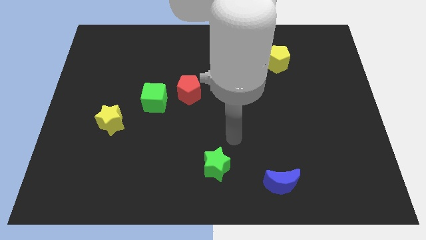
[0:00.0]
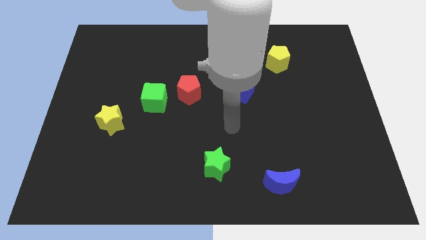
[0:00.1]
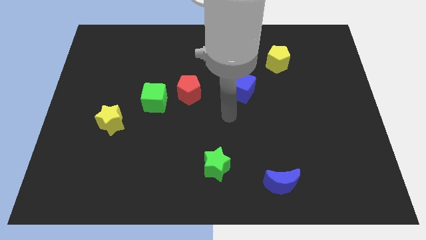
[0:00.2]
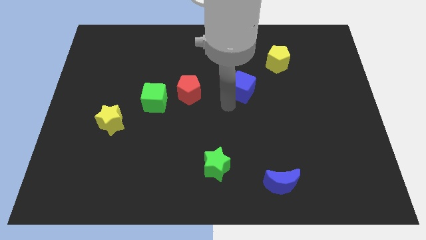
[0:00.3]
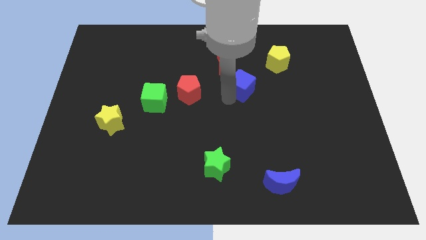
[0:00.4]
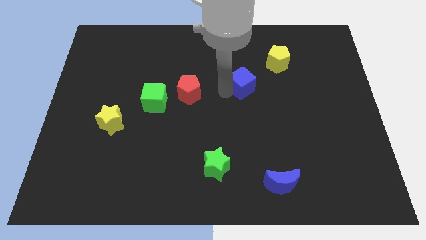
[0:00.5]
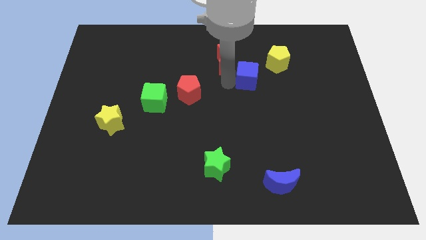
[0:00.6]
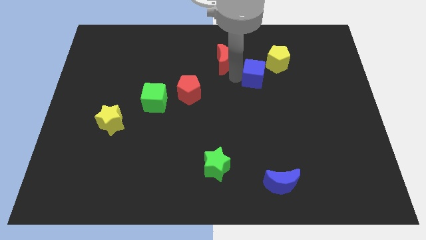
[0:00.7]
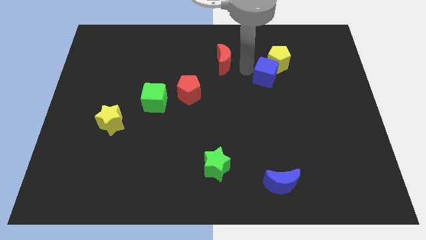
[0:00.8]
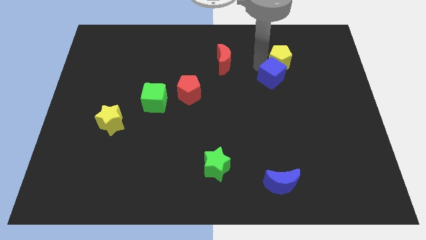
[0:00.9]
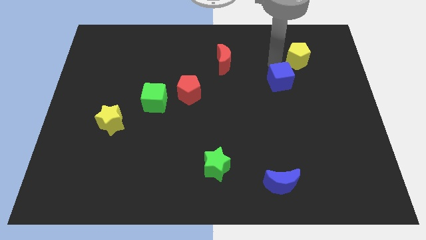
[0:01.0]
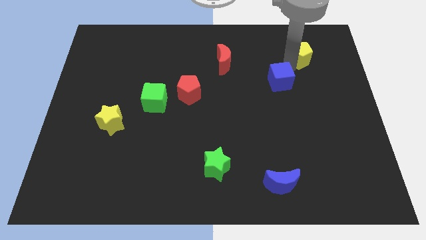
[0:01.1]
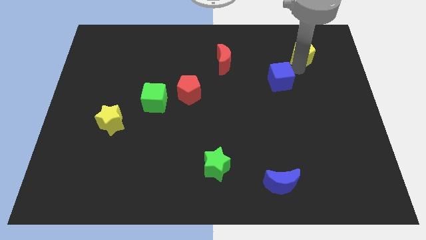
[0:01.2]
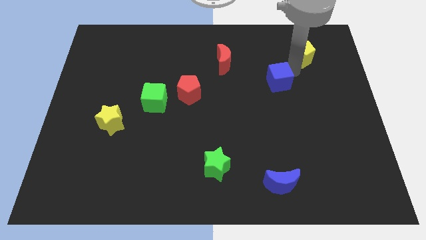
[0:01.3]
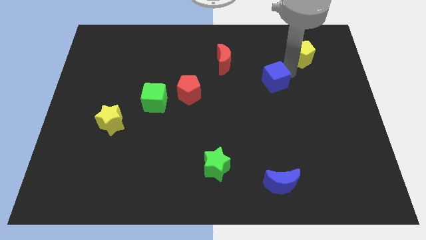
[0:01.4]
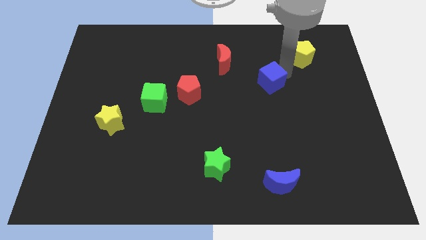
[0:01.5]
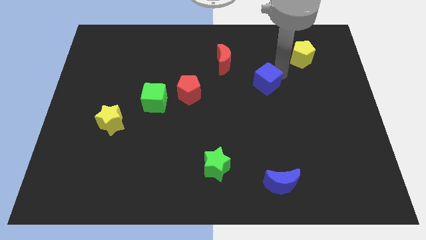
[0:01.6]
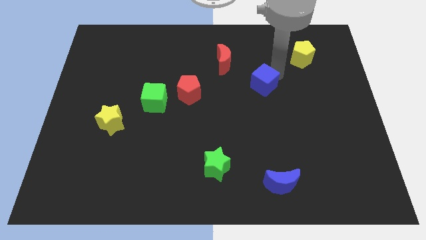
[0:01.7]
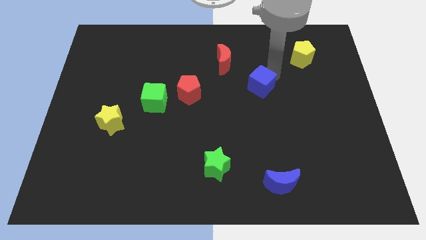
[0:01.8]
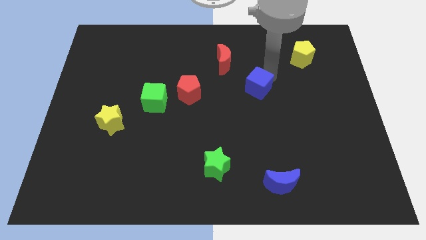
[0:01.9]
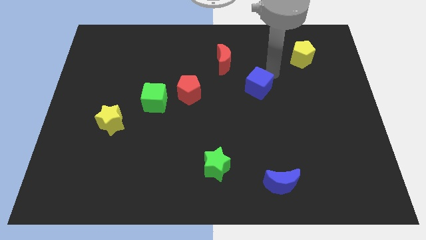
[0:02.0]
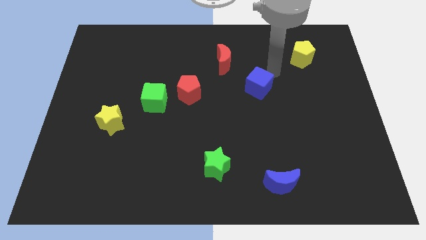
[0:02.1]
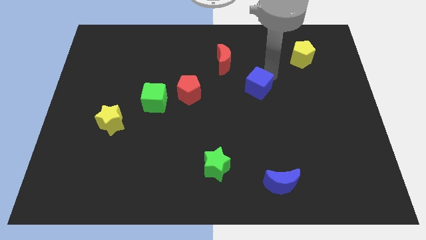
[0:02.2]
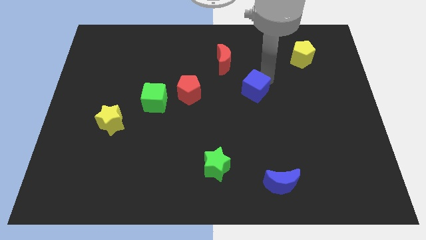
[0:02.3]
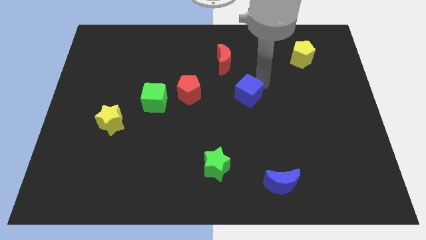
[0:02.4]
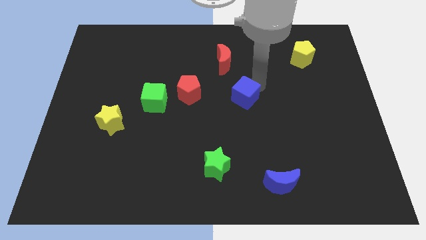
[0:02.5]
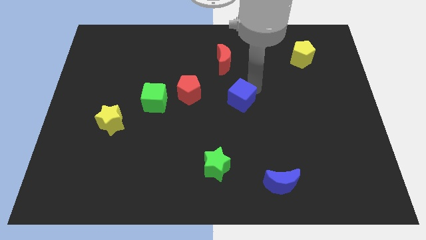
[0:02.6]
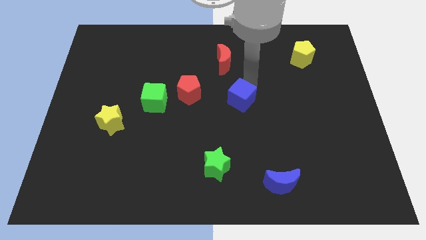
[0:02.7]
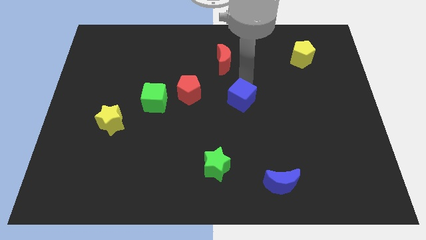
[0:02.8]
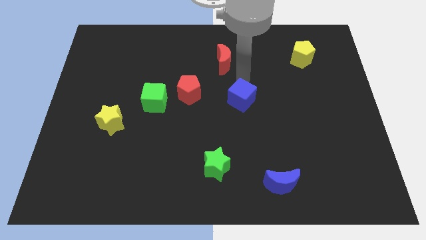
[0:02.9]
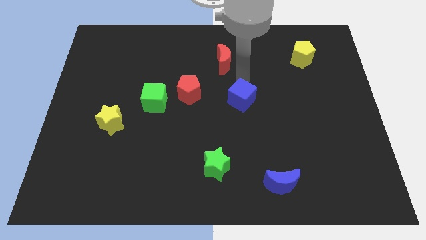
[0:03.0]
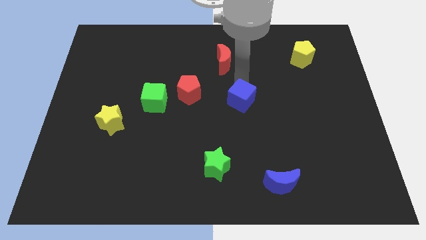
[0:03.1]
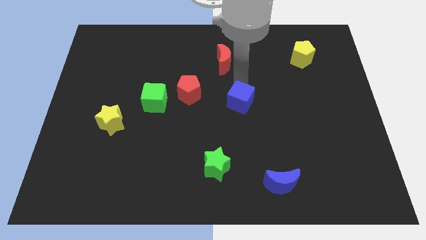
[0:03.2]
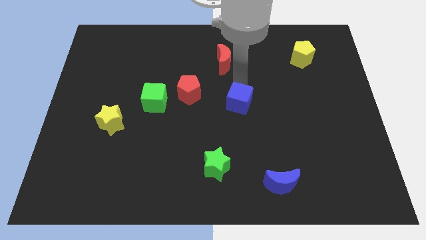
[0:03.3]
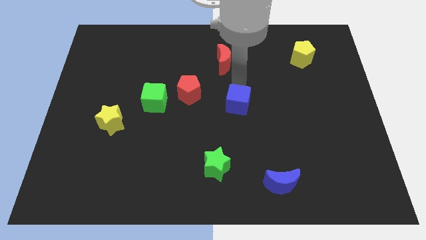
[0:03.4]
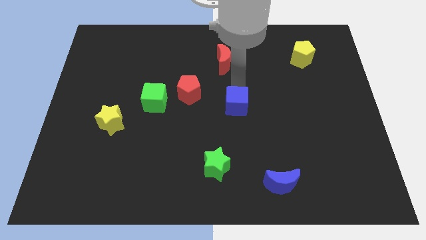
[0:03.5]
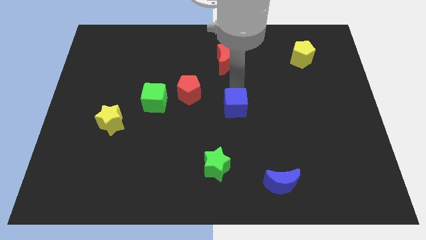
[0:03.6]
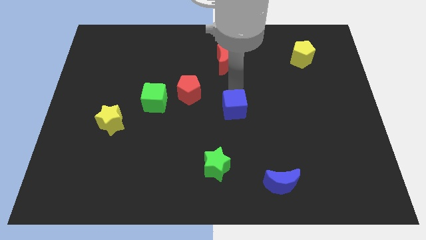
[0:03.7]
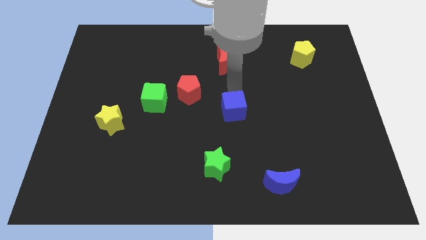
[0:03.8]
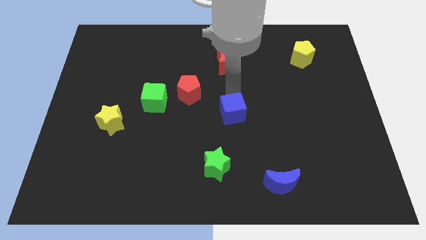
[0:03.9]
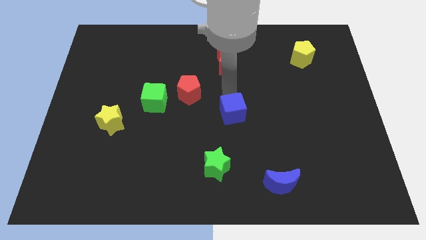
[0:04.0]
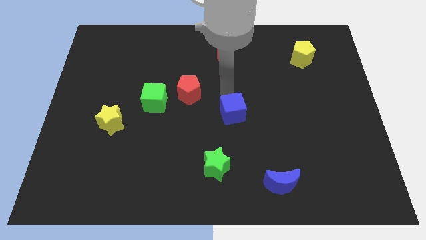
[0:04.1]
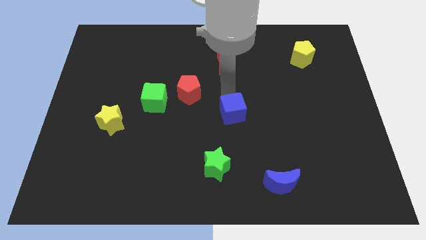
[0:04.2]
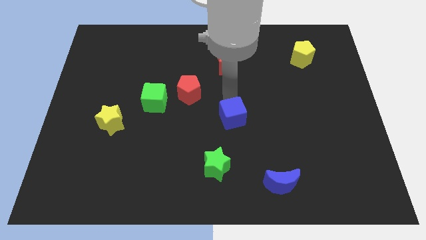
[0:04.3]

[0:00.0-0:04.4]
slightly move the blue cube downwards

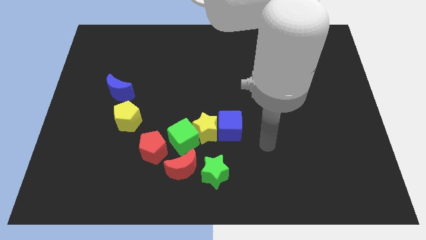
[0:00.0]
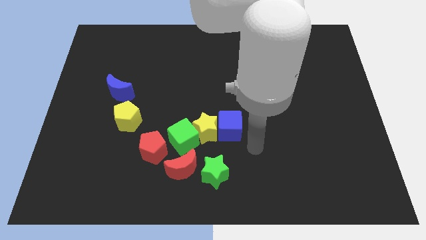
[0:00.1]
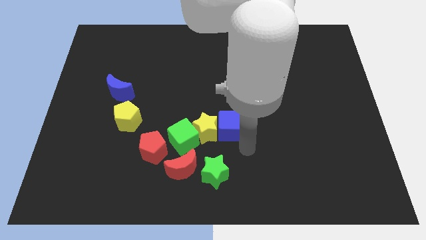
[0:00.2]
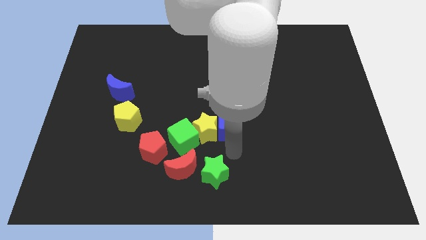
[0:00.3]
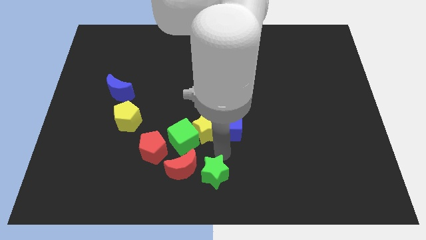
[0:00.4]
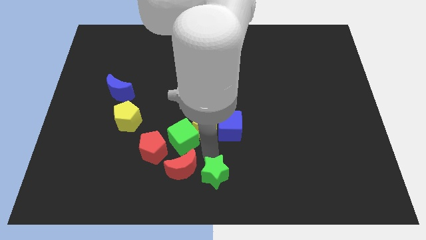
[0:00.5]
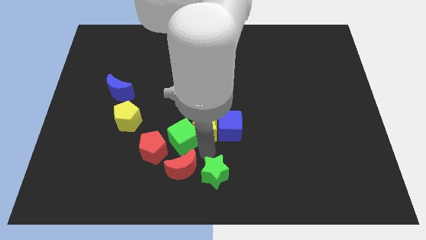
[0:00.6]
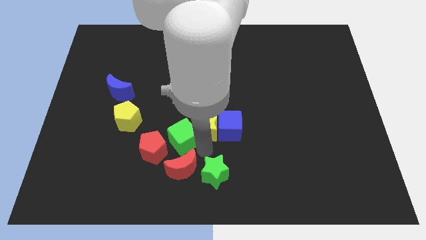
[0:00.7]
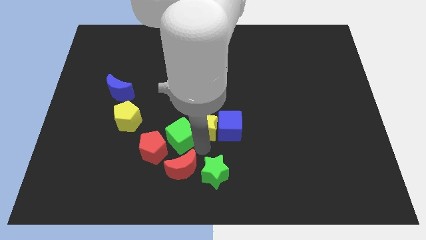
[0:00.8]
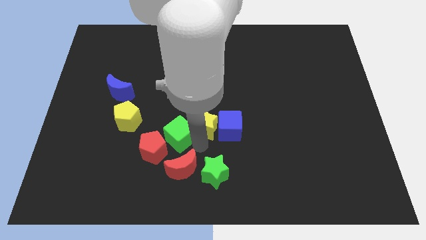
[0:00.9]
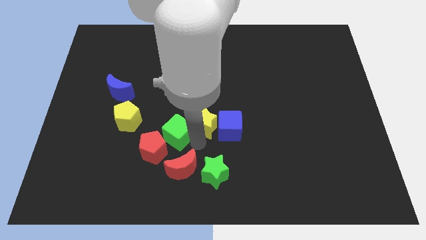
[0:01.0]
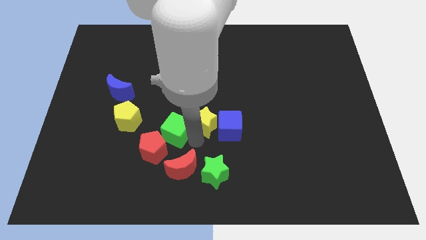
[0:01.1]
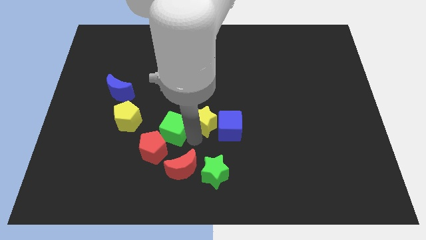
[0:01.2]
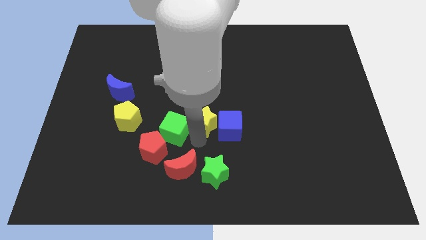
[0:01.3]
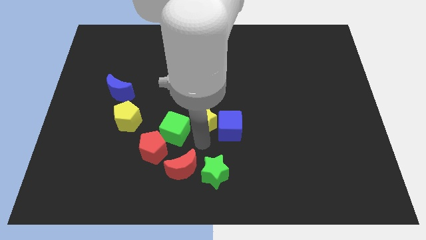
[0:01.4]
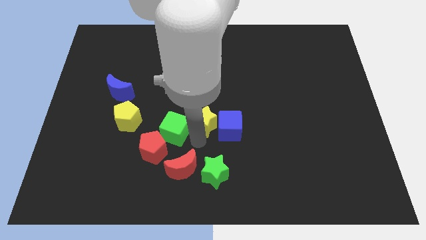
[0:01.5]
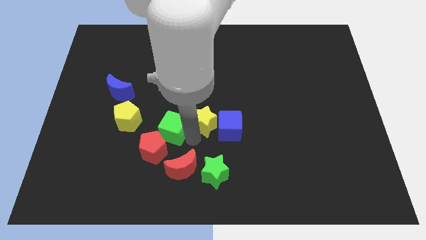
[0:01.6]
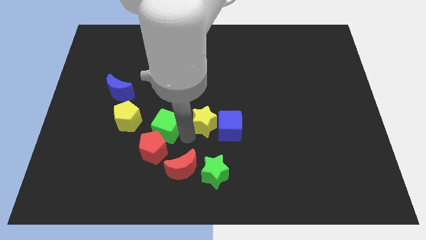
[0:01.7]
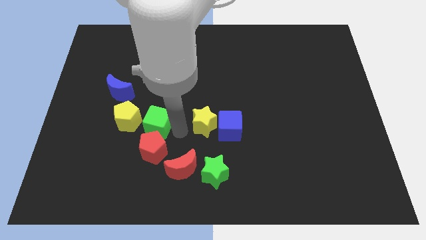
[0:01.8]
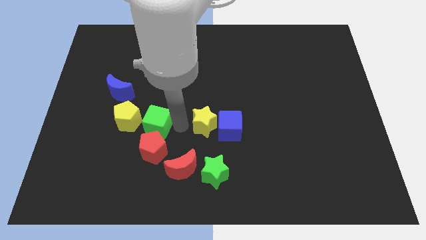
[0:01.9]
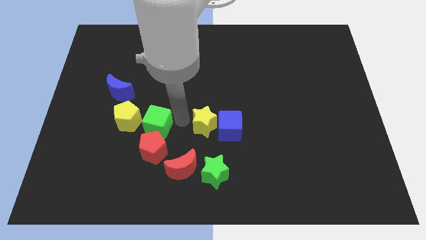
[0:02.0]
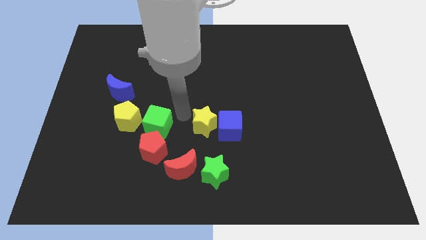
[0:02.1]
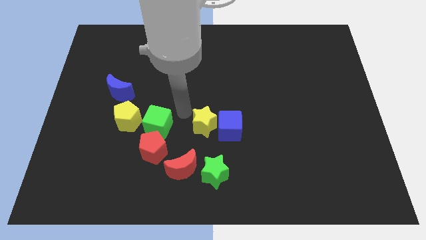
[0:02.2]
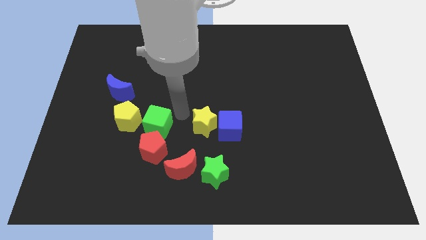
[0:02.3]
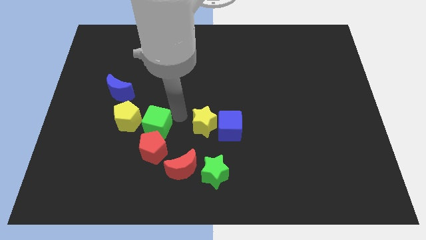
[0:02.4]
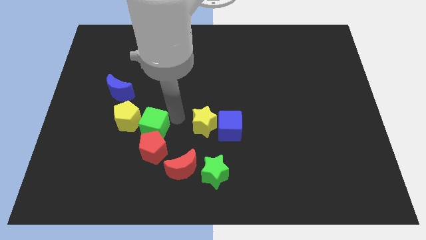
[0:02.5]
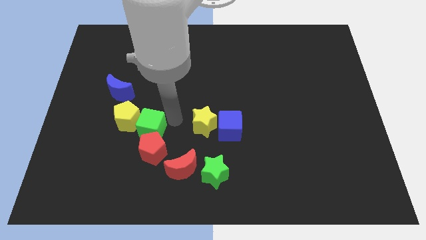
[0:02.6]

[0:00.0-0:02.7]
slide the green cube to the left a little

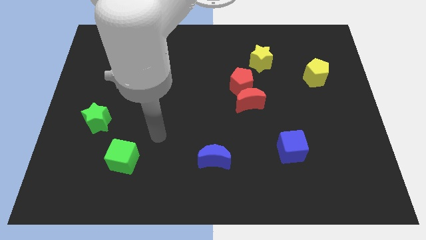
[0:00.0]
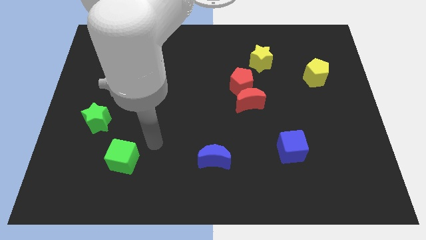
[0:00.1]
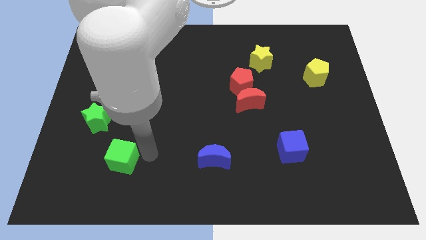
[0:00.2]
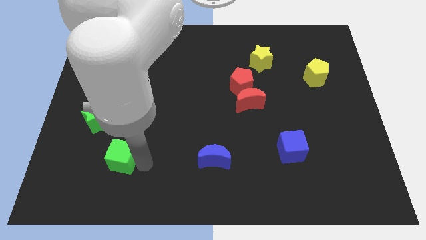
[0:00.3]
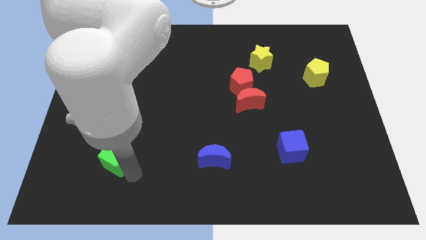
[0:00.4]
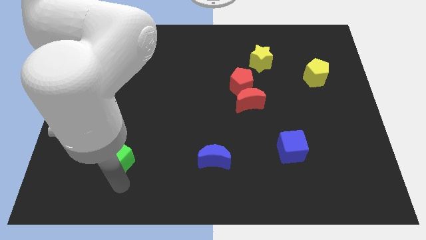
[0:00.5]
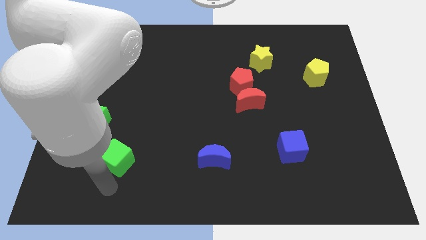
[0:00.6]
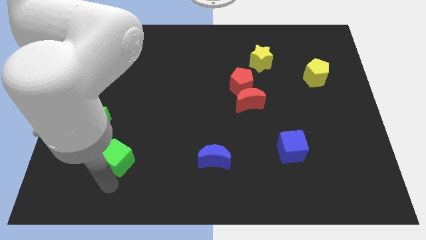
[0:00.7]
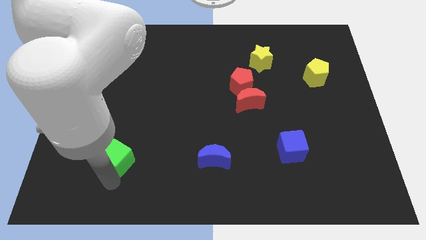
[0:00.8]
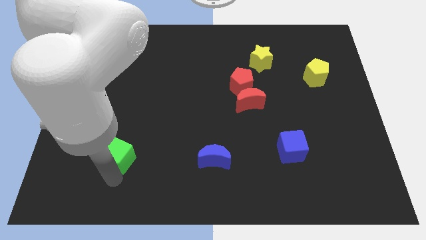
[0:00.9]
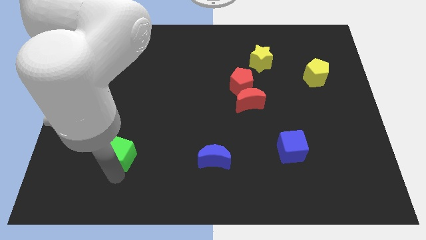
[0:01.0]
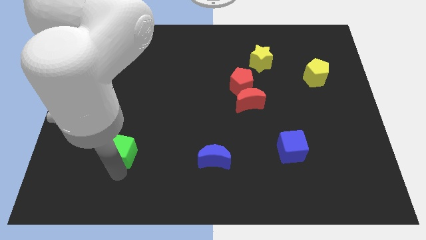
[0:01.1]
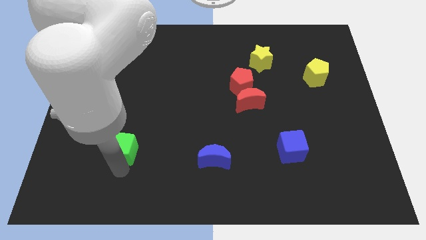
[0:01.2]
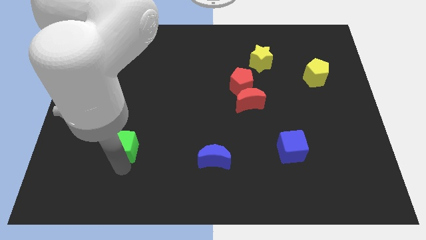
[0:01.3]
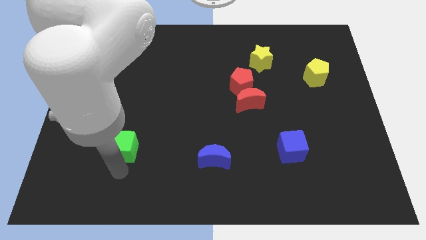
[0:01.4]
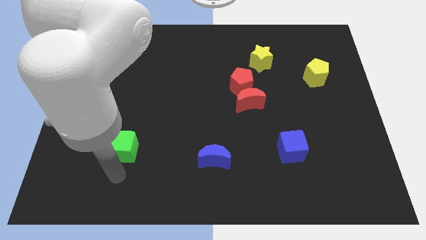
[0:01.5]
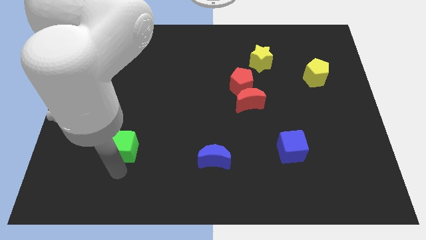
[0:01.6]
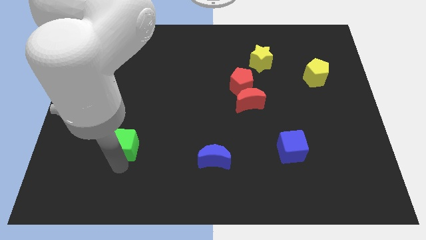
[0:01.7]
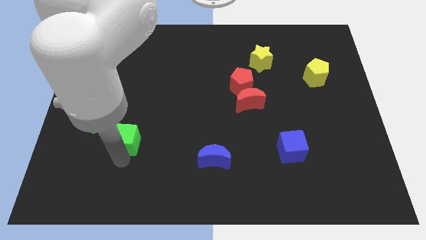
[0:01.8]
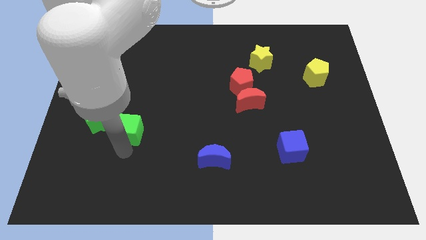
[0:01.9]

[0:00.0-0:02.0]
slightly move the green cube upwards
